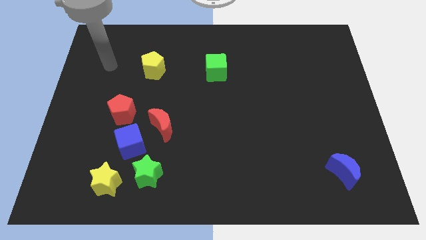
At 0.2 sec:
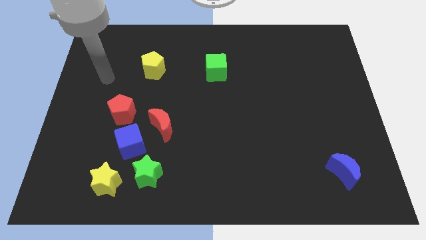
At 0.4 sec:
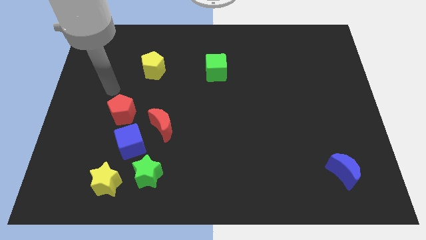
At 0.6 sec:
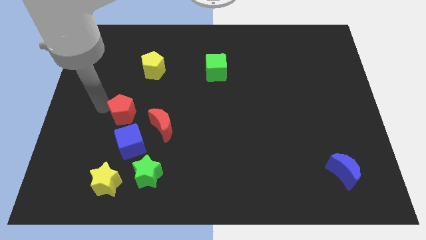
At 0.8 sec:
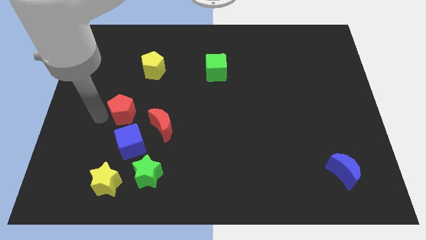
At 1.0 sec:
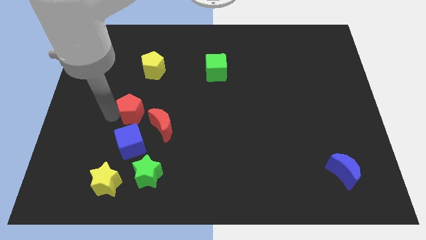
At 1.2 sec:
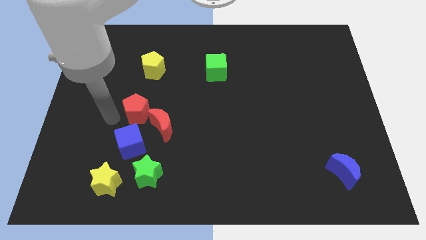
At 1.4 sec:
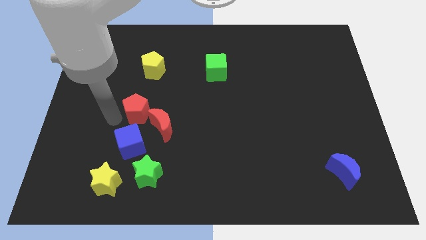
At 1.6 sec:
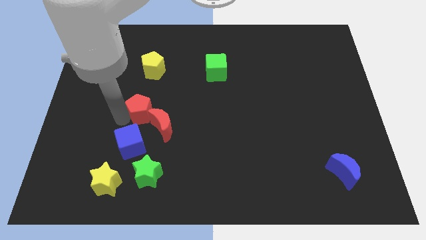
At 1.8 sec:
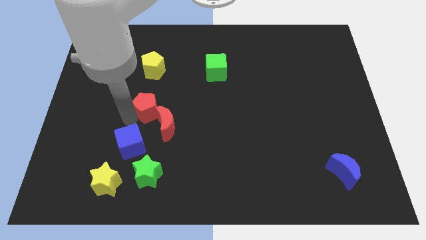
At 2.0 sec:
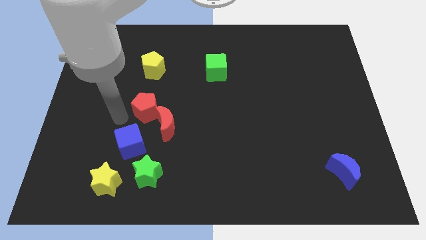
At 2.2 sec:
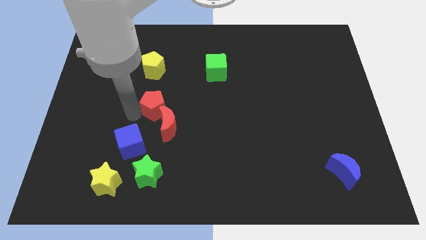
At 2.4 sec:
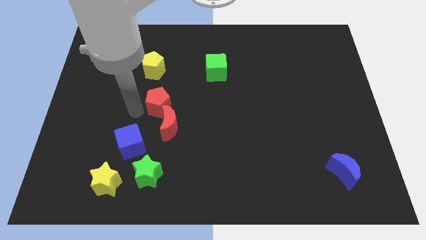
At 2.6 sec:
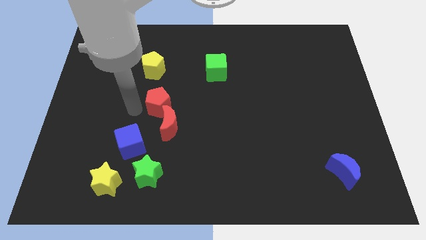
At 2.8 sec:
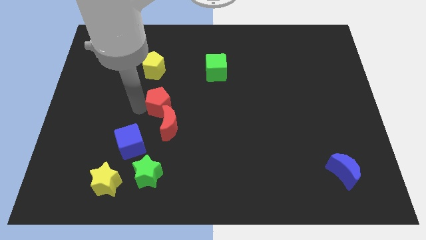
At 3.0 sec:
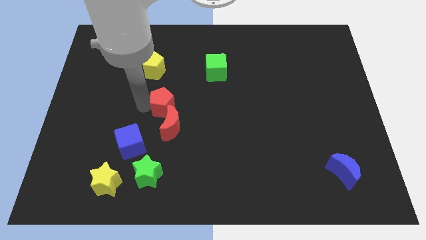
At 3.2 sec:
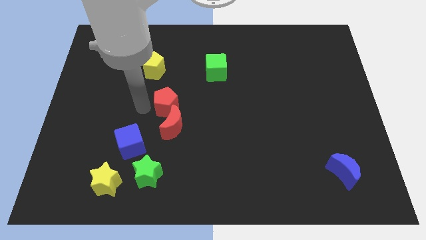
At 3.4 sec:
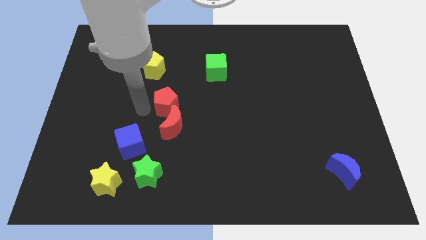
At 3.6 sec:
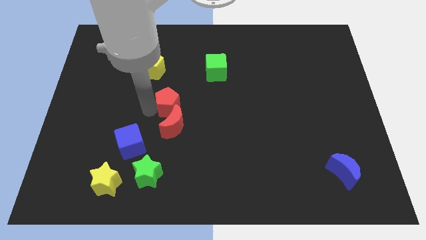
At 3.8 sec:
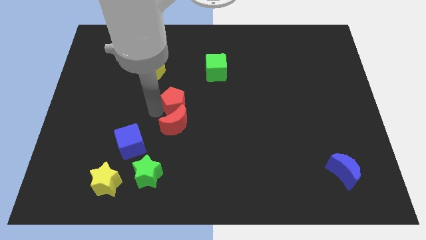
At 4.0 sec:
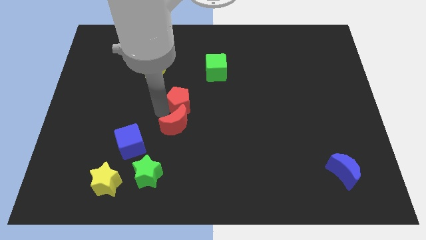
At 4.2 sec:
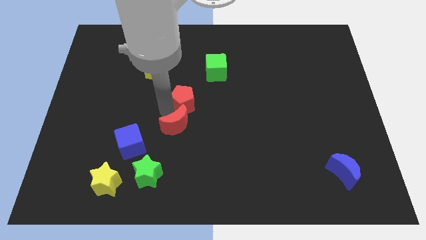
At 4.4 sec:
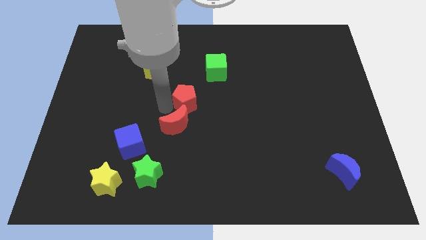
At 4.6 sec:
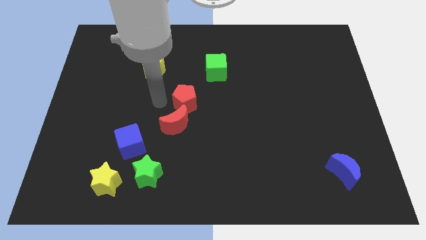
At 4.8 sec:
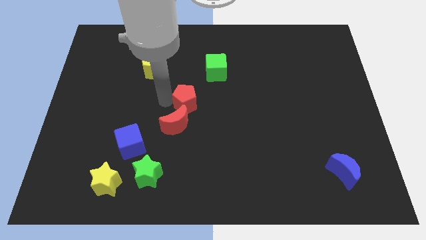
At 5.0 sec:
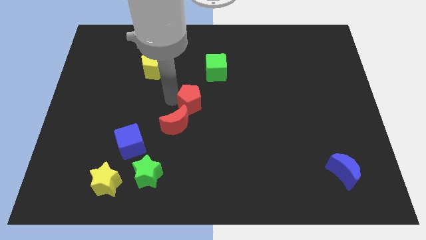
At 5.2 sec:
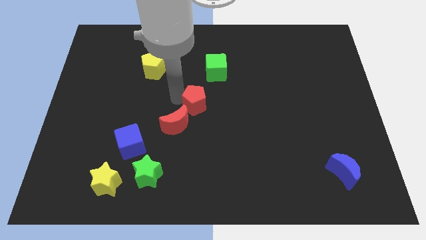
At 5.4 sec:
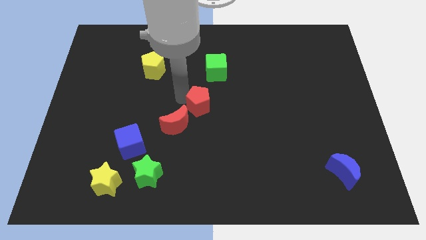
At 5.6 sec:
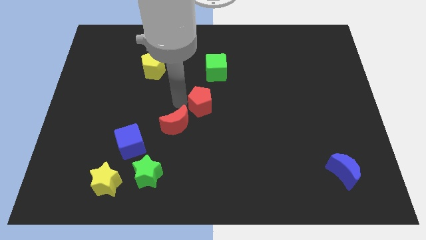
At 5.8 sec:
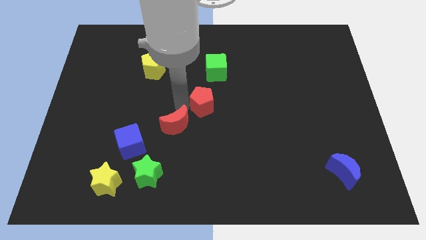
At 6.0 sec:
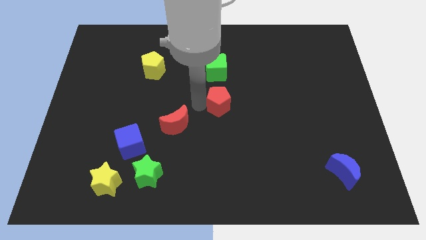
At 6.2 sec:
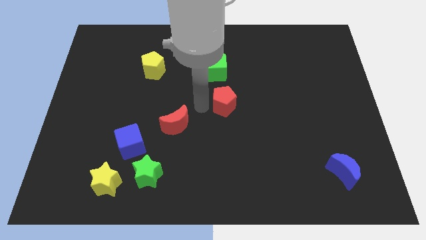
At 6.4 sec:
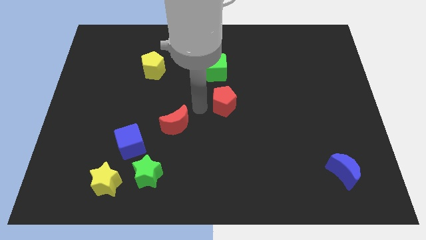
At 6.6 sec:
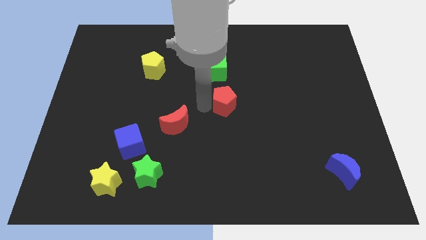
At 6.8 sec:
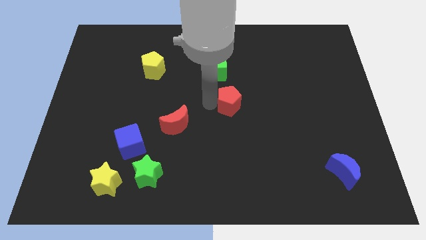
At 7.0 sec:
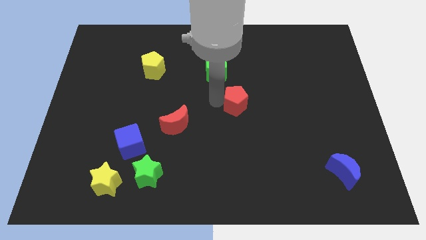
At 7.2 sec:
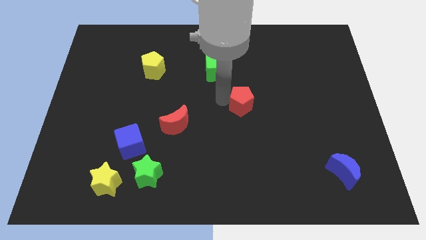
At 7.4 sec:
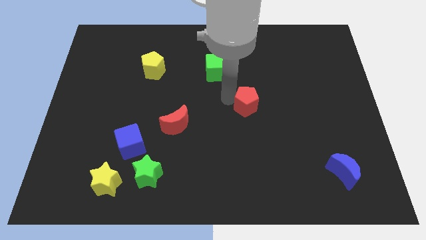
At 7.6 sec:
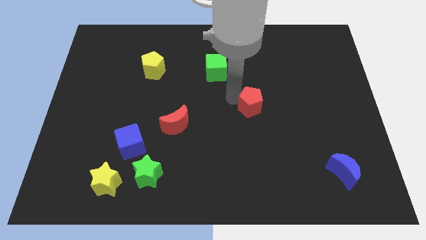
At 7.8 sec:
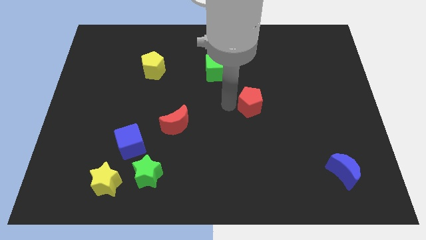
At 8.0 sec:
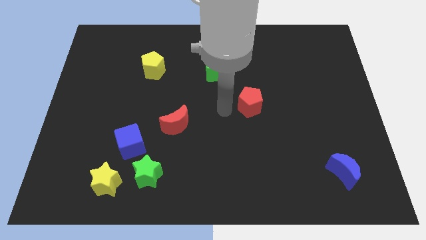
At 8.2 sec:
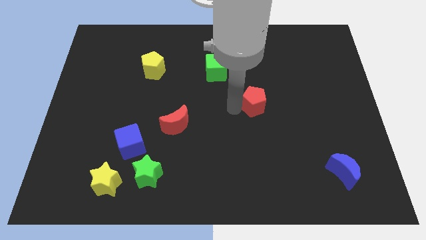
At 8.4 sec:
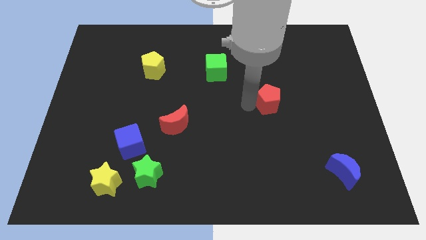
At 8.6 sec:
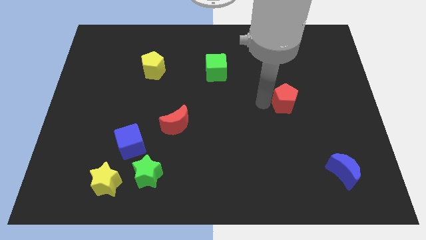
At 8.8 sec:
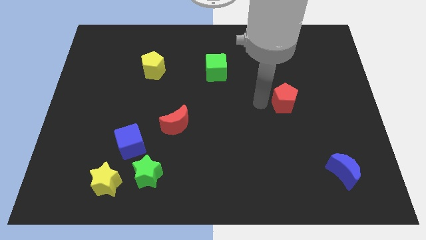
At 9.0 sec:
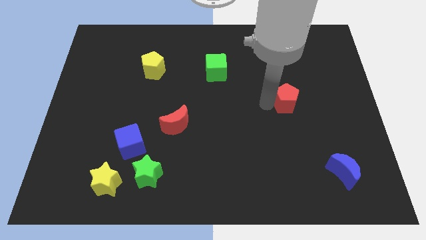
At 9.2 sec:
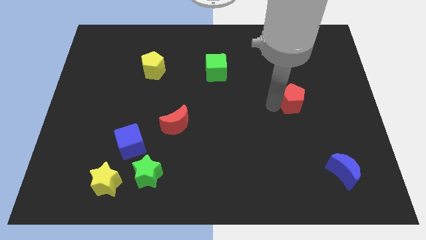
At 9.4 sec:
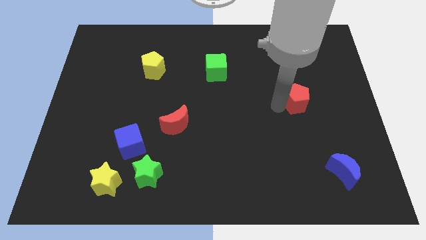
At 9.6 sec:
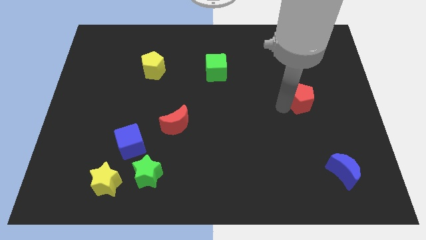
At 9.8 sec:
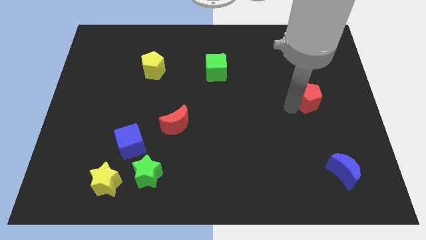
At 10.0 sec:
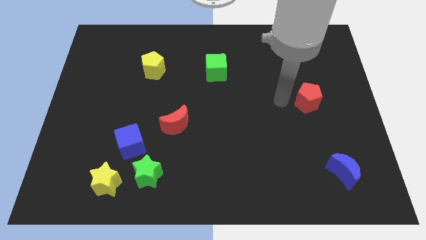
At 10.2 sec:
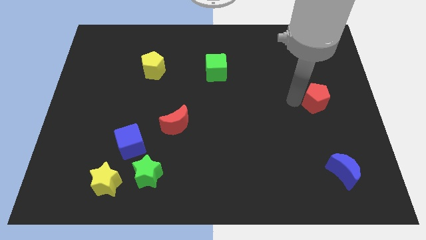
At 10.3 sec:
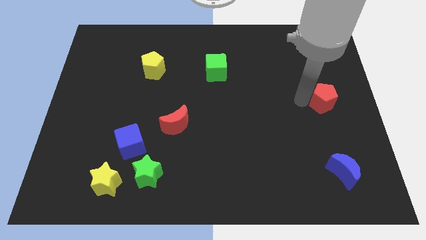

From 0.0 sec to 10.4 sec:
put the red pentagon to the center right
